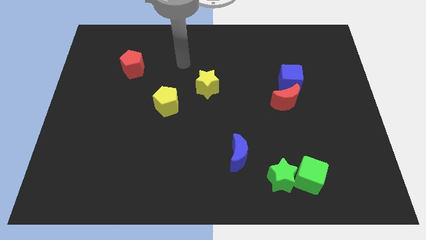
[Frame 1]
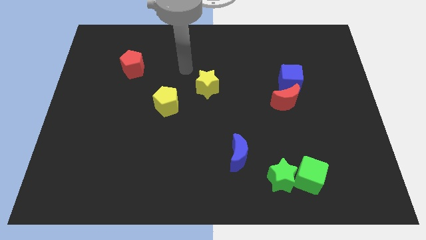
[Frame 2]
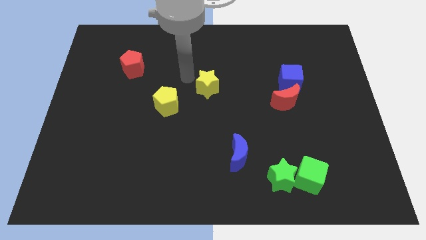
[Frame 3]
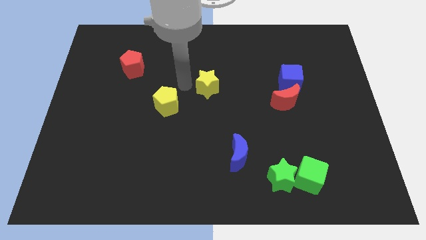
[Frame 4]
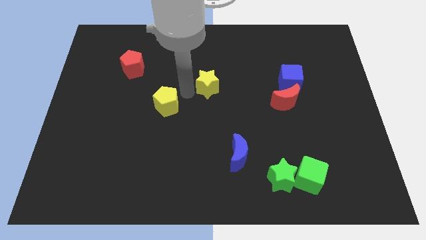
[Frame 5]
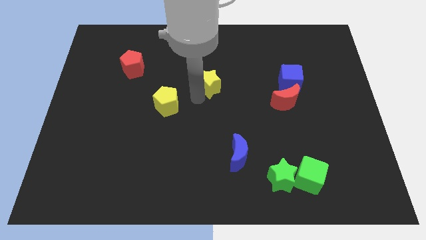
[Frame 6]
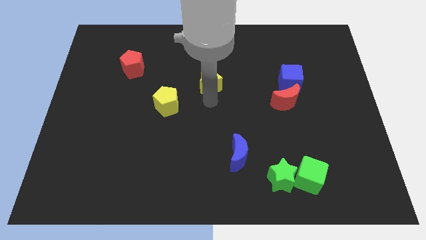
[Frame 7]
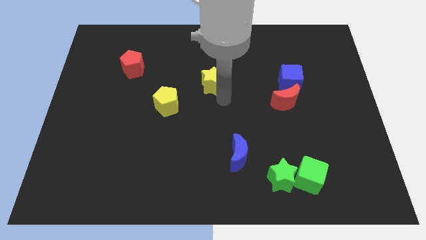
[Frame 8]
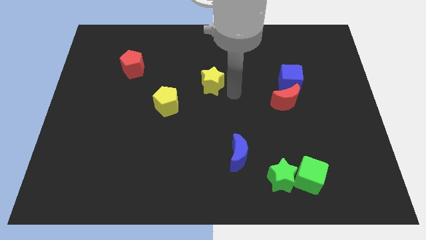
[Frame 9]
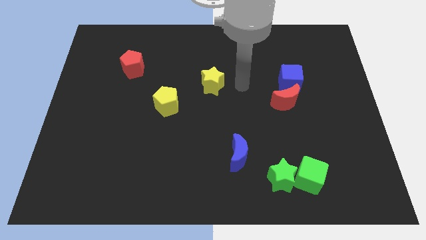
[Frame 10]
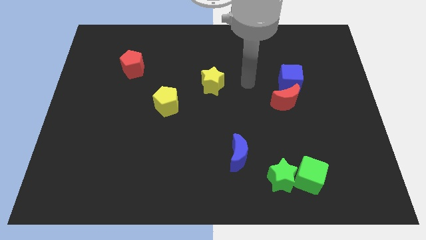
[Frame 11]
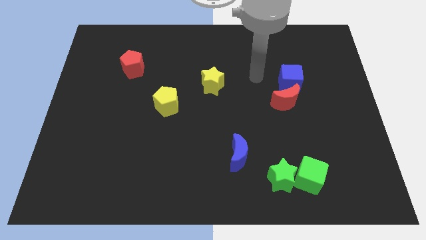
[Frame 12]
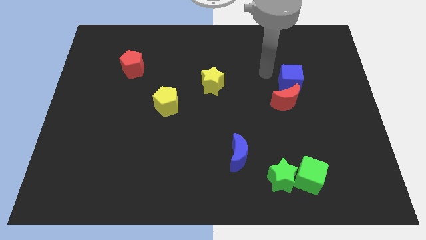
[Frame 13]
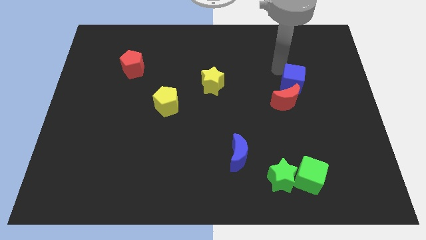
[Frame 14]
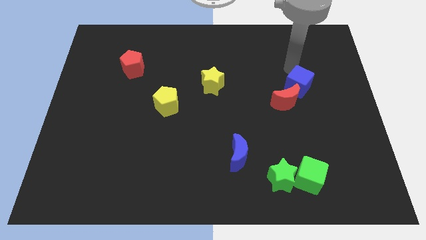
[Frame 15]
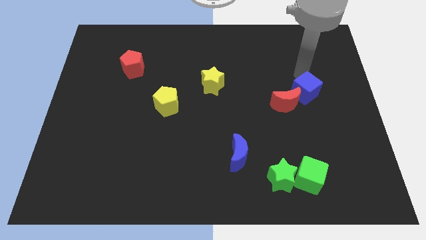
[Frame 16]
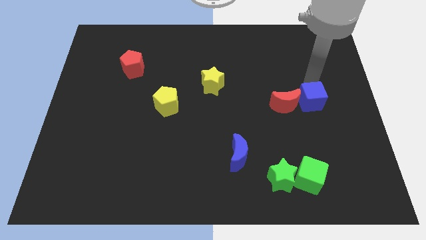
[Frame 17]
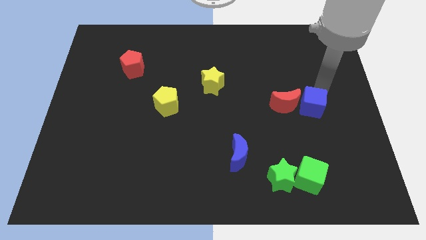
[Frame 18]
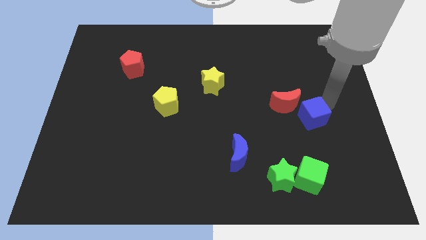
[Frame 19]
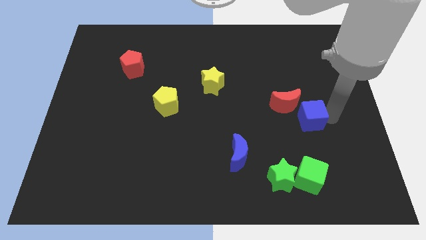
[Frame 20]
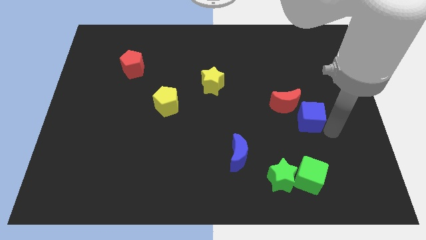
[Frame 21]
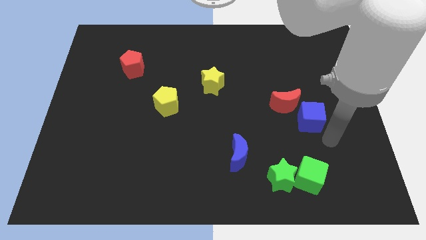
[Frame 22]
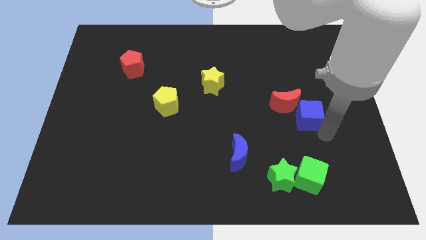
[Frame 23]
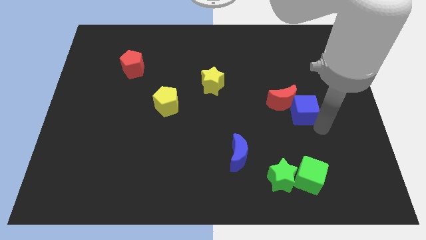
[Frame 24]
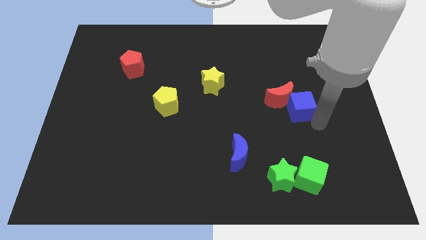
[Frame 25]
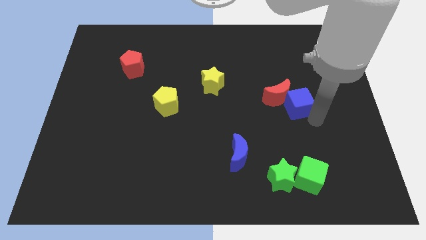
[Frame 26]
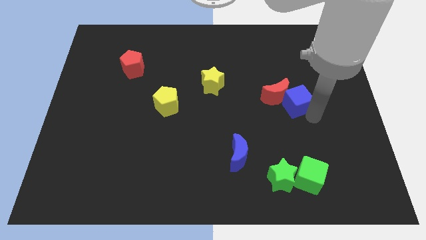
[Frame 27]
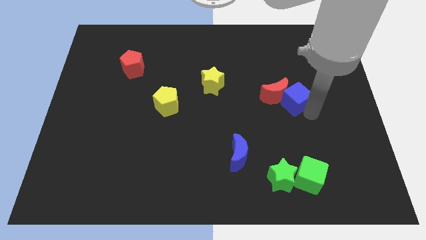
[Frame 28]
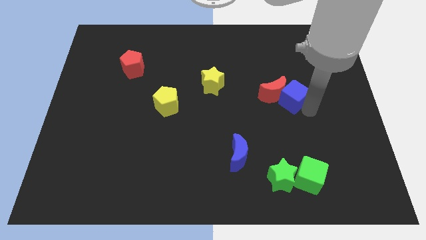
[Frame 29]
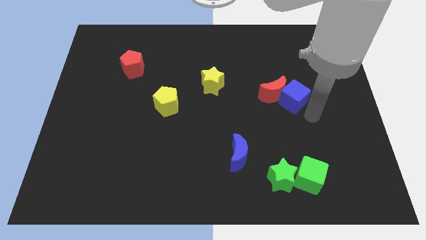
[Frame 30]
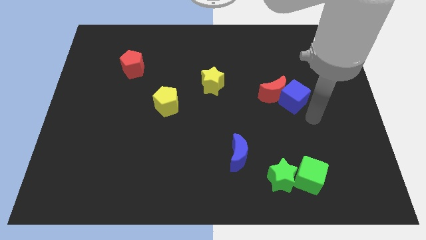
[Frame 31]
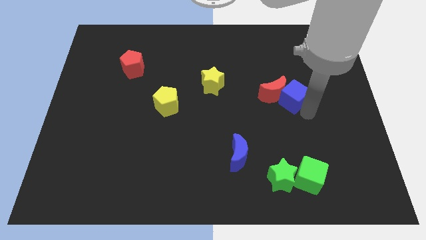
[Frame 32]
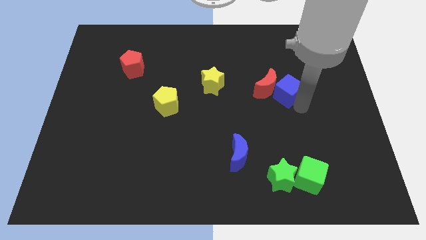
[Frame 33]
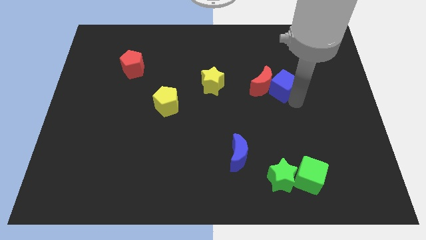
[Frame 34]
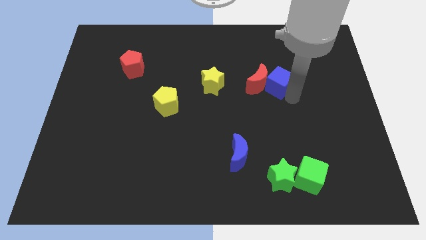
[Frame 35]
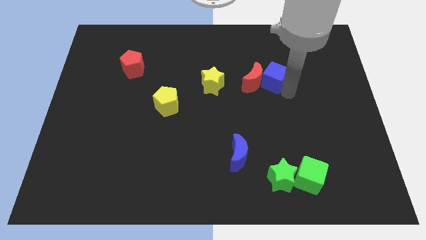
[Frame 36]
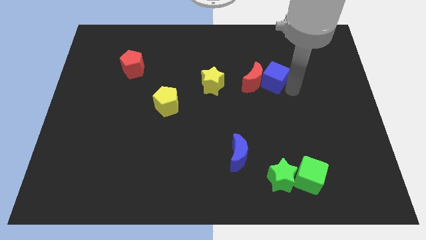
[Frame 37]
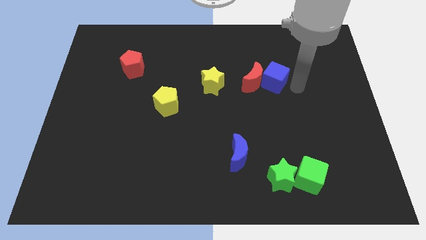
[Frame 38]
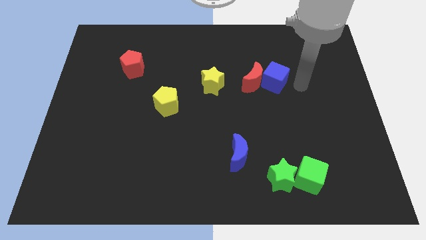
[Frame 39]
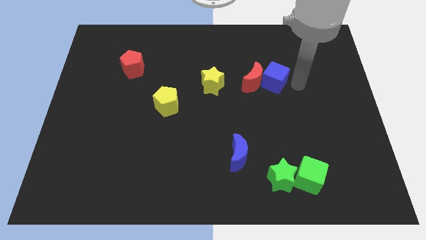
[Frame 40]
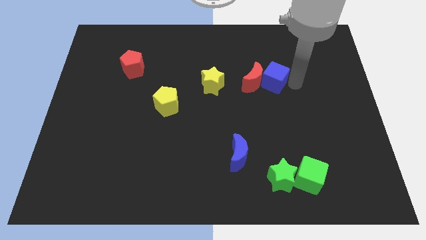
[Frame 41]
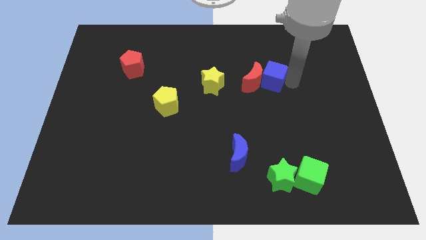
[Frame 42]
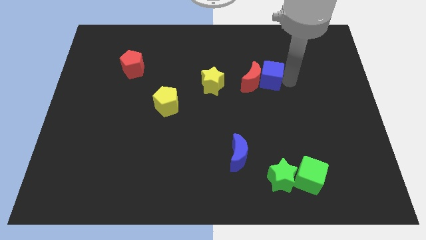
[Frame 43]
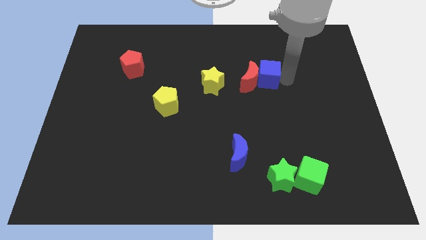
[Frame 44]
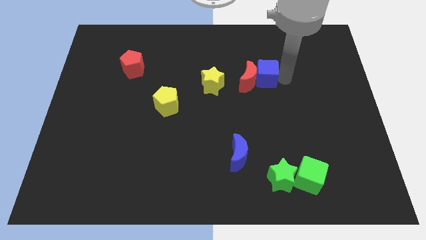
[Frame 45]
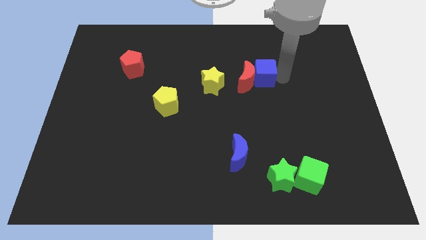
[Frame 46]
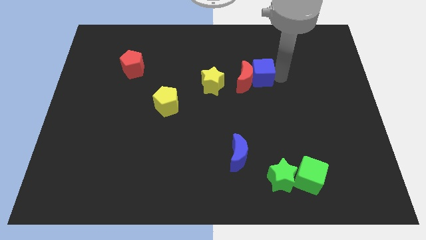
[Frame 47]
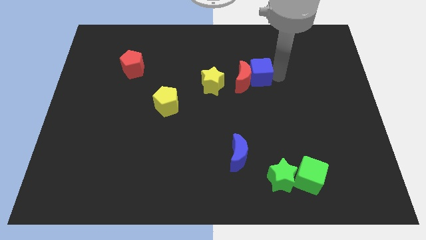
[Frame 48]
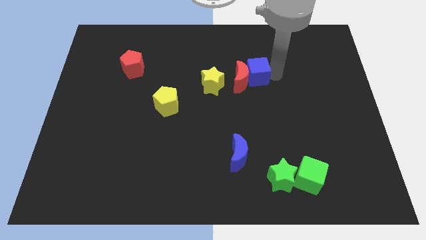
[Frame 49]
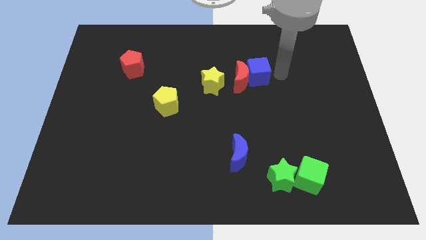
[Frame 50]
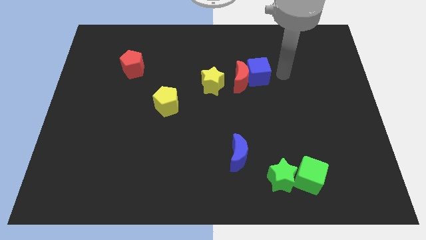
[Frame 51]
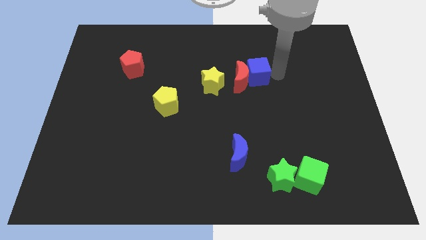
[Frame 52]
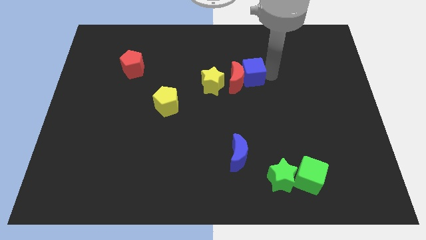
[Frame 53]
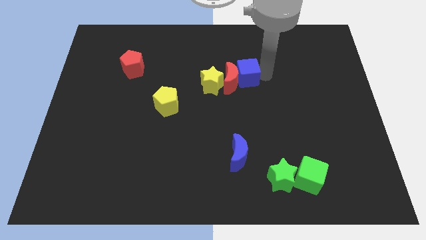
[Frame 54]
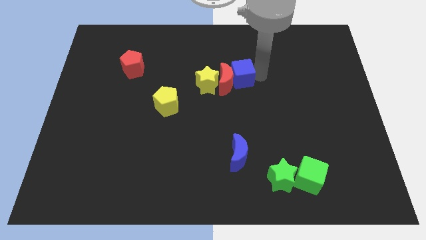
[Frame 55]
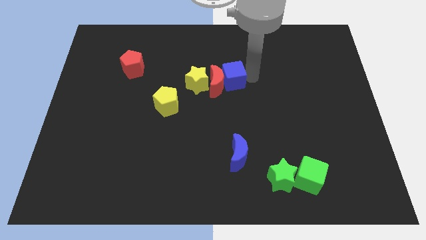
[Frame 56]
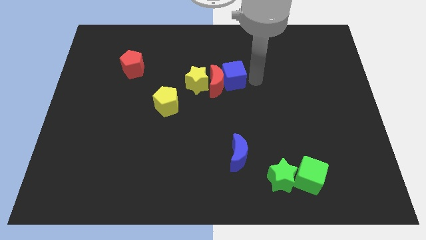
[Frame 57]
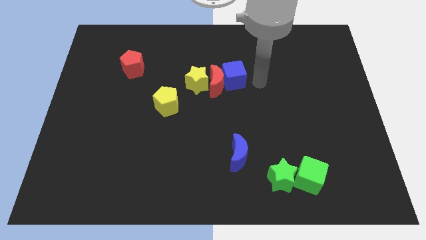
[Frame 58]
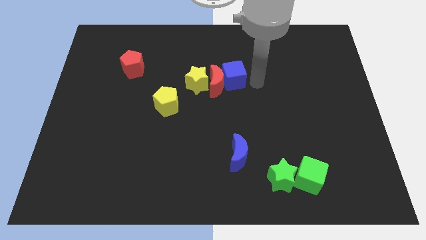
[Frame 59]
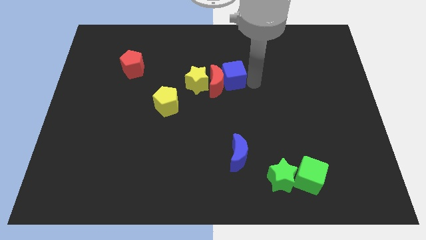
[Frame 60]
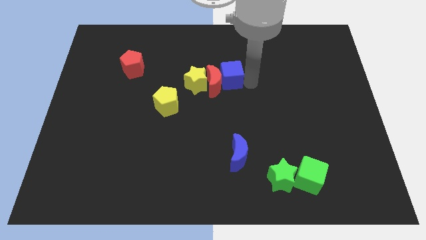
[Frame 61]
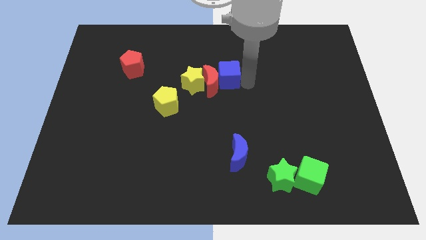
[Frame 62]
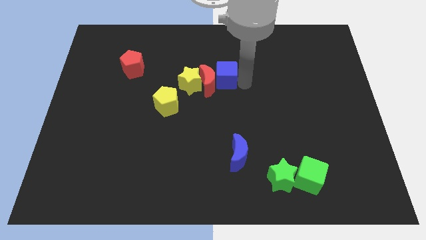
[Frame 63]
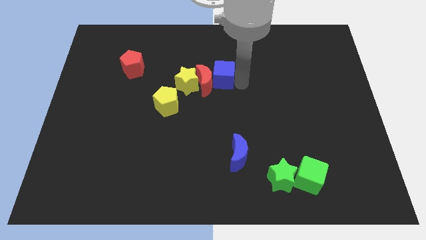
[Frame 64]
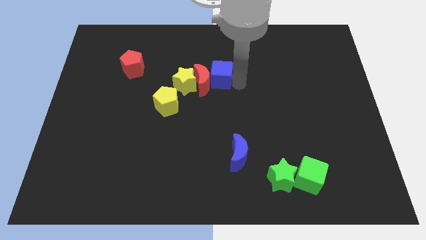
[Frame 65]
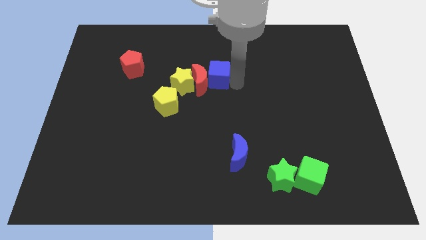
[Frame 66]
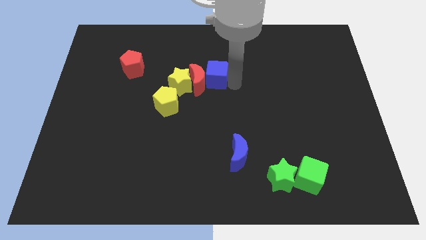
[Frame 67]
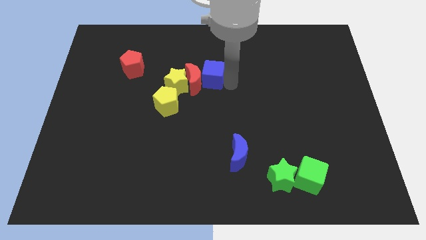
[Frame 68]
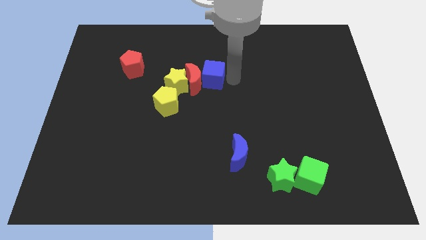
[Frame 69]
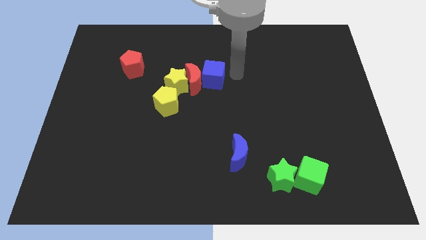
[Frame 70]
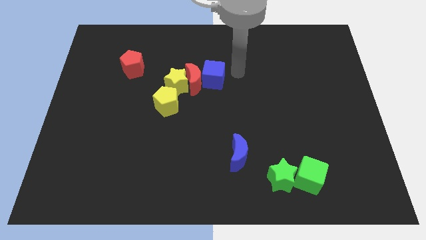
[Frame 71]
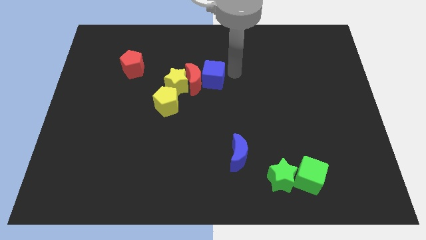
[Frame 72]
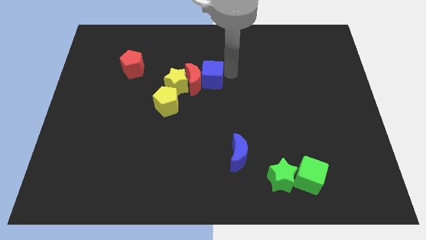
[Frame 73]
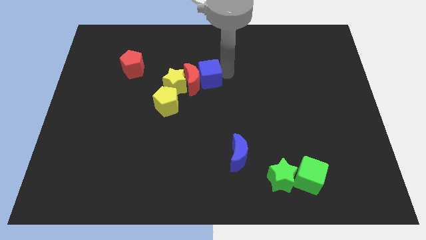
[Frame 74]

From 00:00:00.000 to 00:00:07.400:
push the blue cube to the left

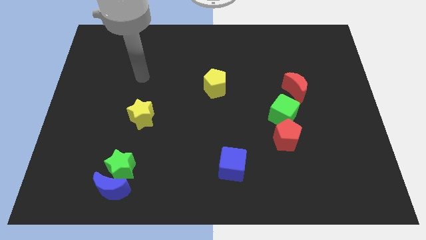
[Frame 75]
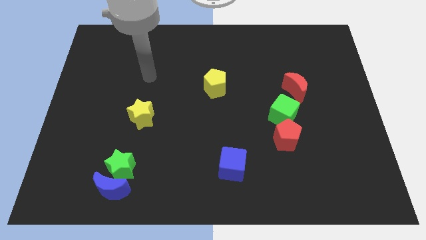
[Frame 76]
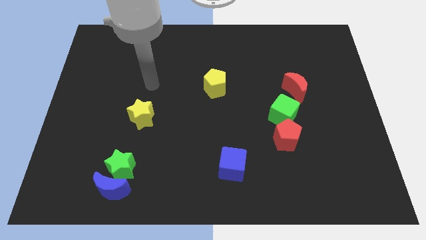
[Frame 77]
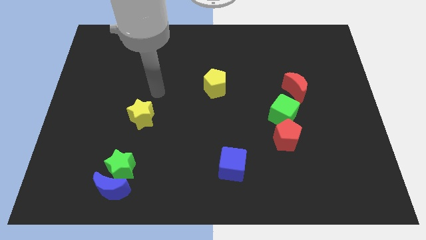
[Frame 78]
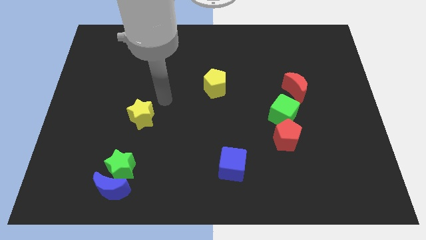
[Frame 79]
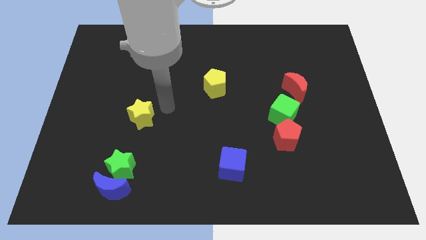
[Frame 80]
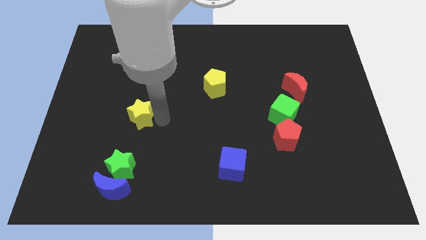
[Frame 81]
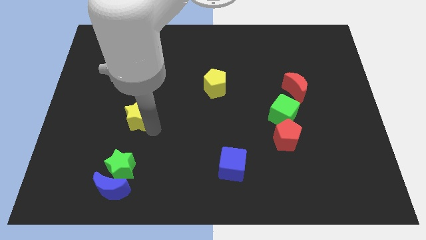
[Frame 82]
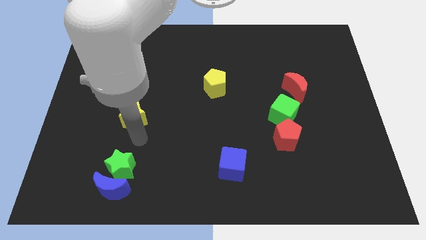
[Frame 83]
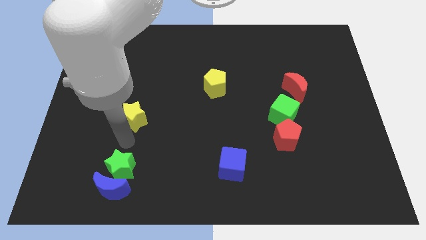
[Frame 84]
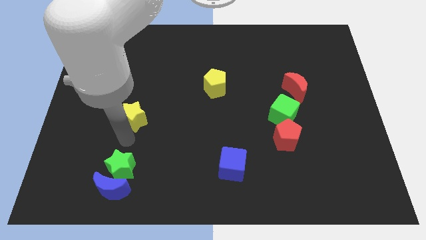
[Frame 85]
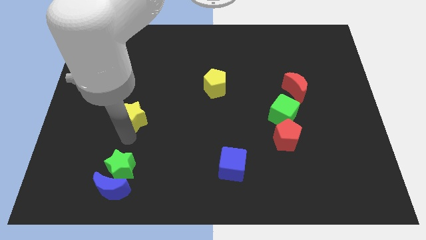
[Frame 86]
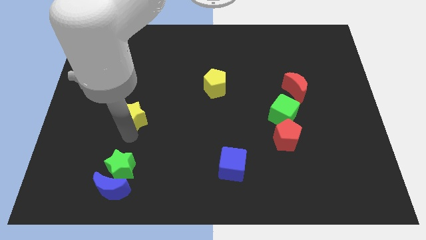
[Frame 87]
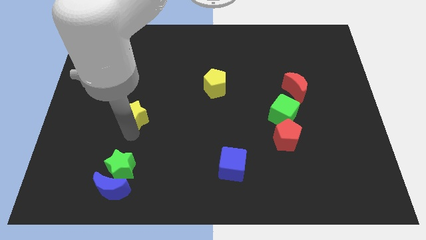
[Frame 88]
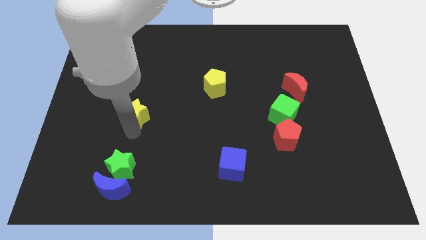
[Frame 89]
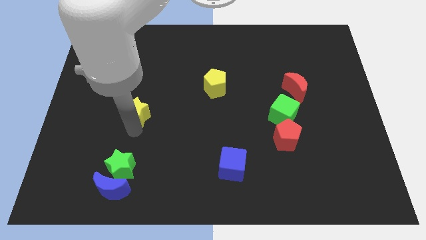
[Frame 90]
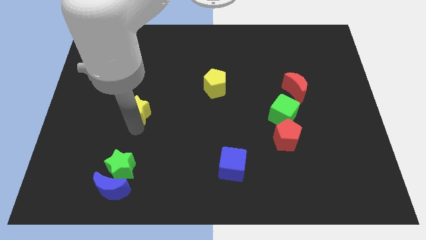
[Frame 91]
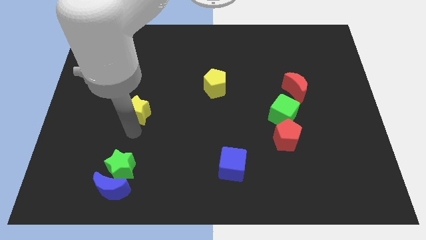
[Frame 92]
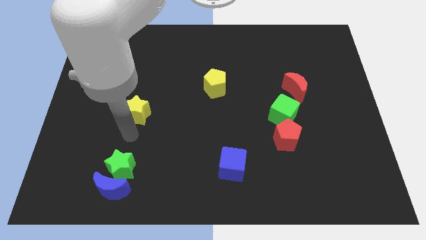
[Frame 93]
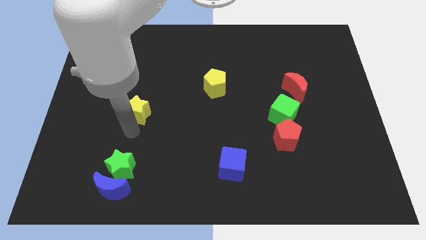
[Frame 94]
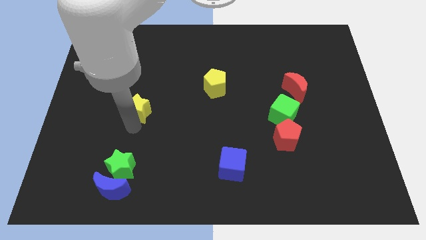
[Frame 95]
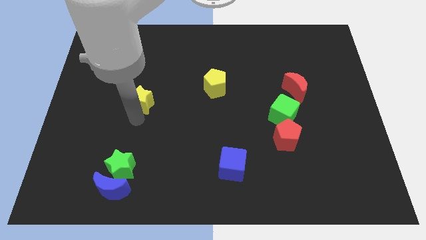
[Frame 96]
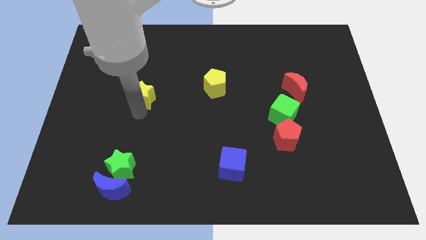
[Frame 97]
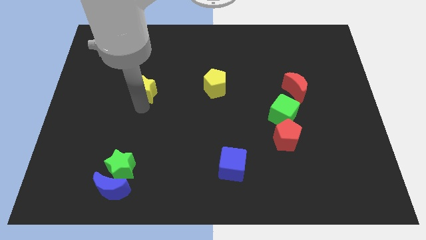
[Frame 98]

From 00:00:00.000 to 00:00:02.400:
move the yellow star slightly upwards
